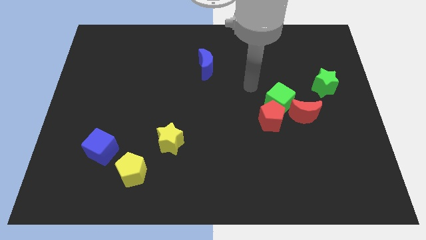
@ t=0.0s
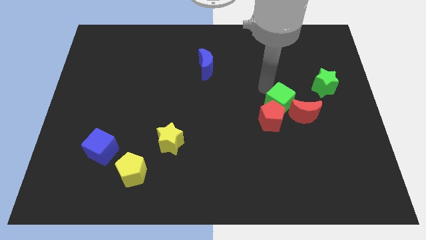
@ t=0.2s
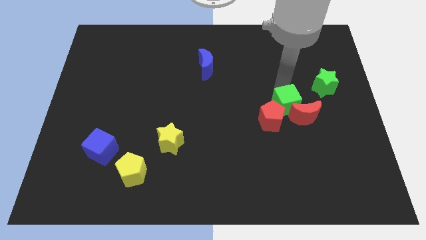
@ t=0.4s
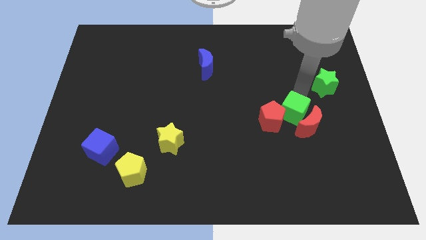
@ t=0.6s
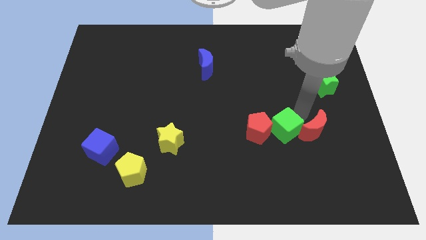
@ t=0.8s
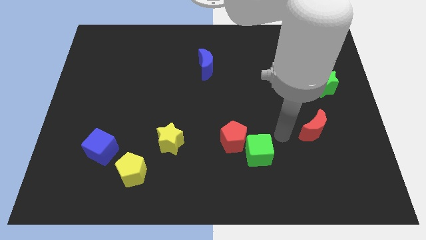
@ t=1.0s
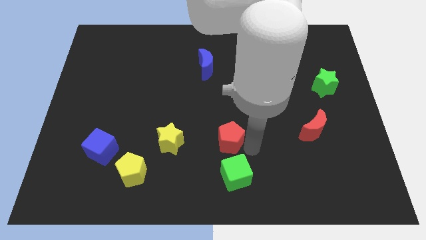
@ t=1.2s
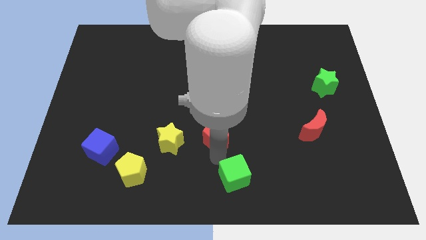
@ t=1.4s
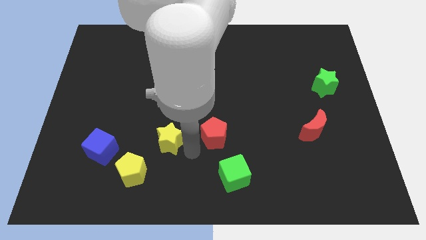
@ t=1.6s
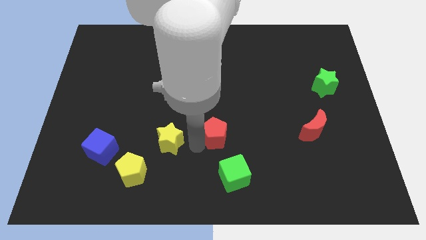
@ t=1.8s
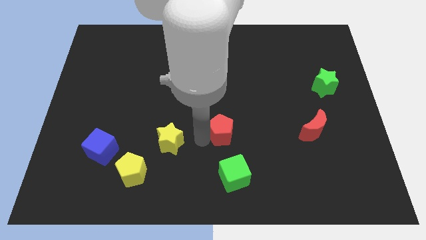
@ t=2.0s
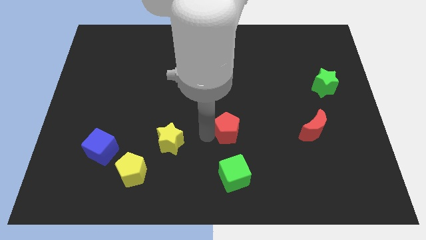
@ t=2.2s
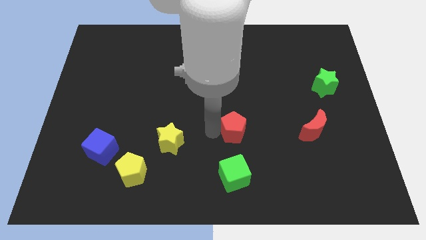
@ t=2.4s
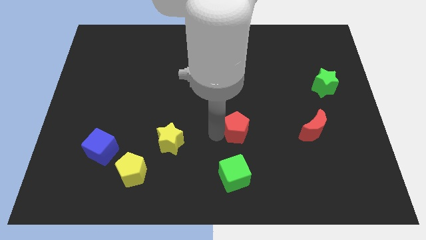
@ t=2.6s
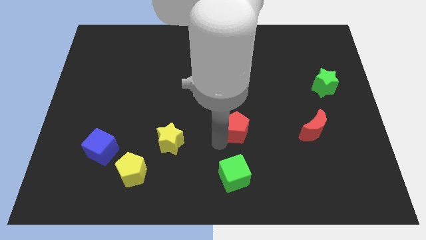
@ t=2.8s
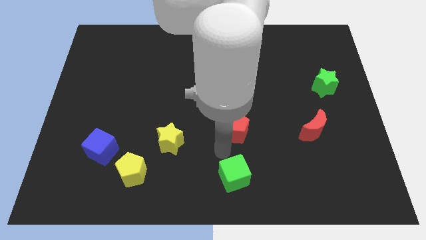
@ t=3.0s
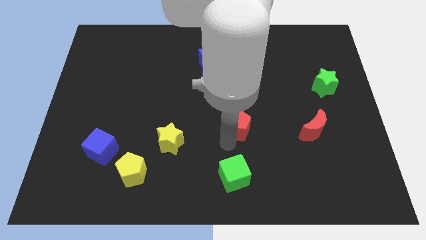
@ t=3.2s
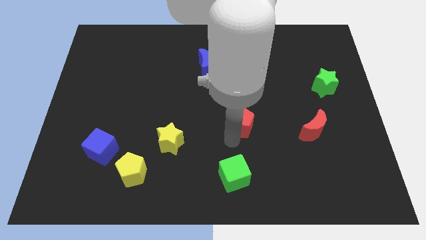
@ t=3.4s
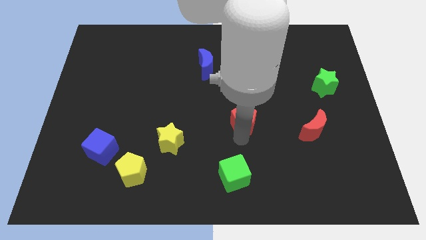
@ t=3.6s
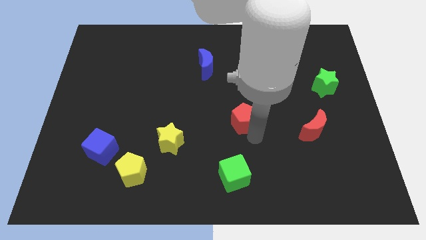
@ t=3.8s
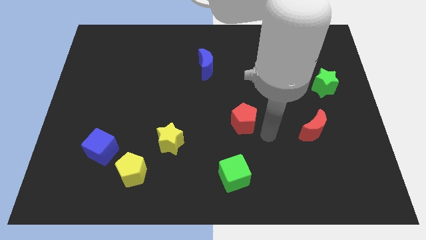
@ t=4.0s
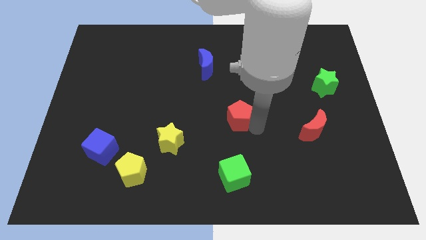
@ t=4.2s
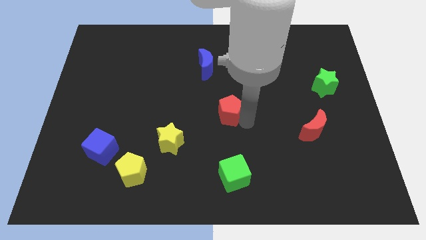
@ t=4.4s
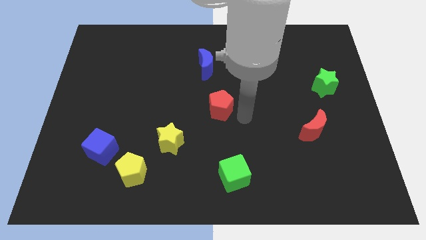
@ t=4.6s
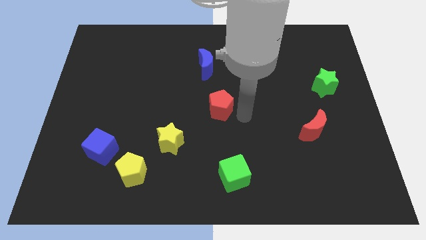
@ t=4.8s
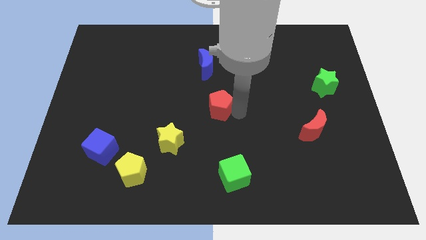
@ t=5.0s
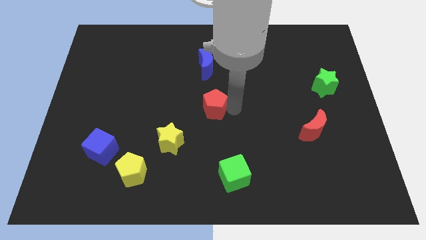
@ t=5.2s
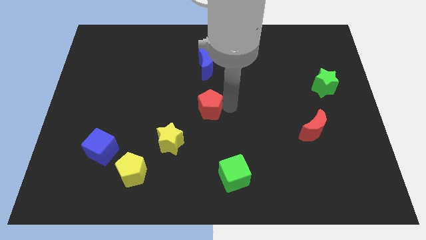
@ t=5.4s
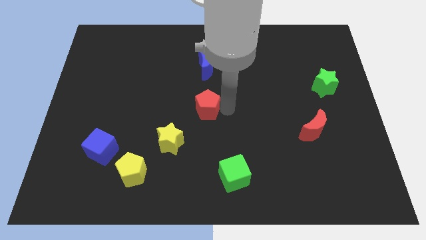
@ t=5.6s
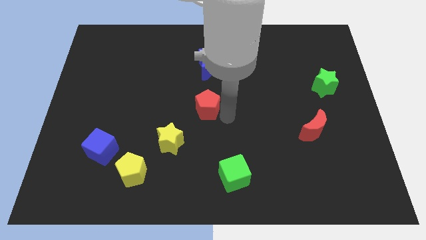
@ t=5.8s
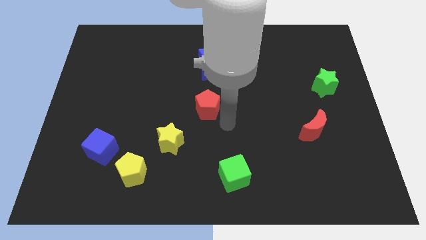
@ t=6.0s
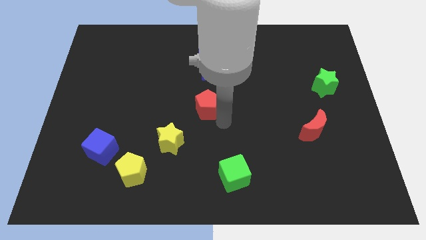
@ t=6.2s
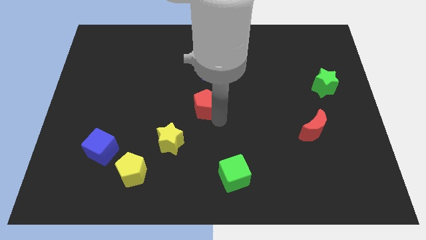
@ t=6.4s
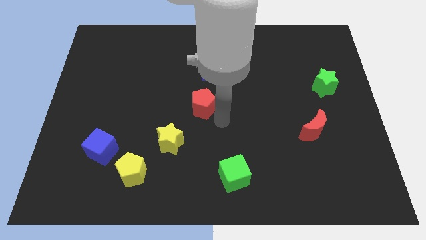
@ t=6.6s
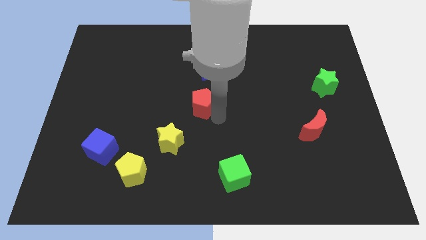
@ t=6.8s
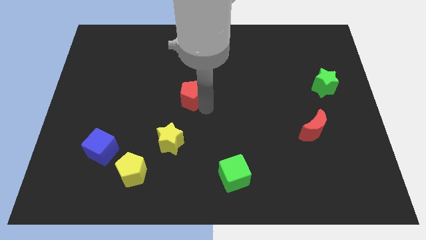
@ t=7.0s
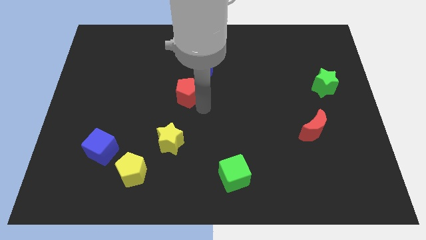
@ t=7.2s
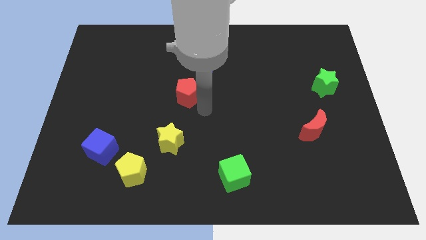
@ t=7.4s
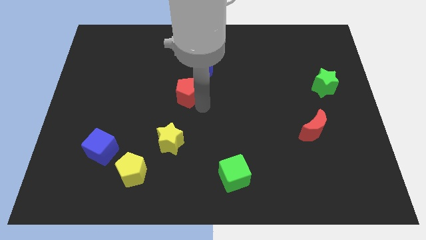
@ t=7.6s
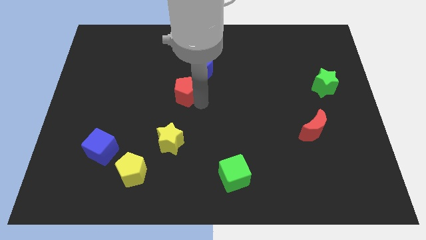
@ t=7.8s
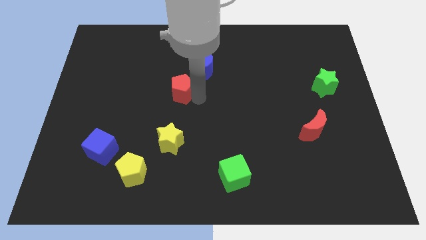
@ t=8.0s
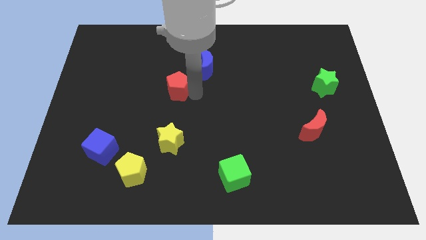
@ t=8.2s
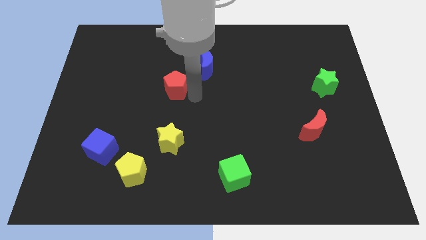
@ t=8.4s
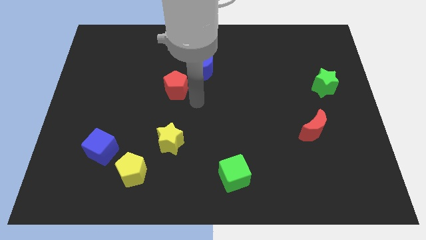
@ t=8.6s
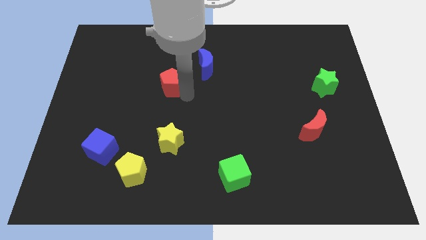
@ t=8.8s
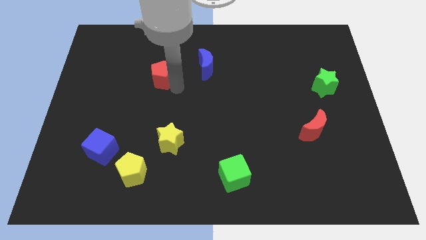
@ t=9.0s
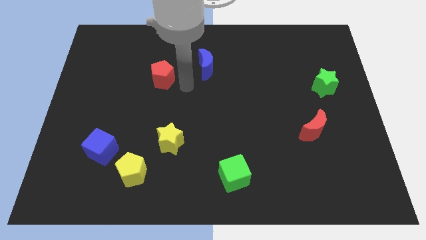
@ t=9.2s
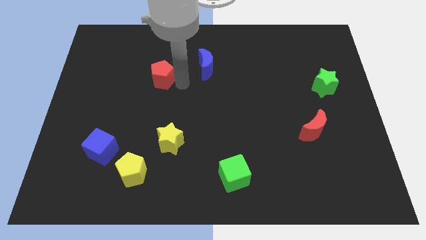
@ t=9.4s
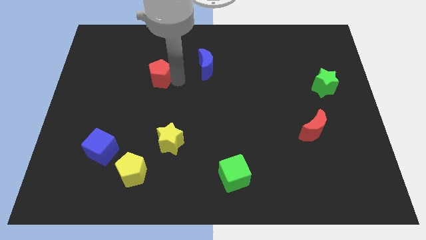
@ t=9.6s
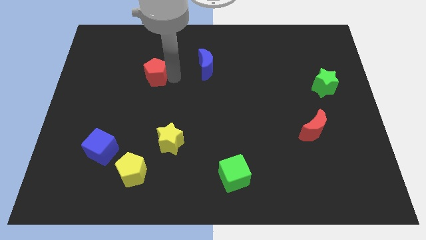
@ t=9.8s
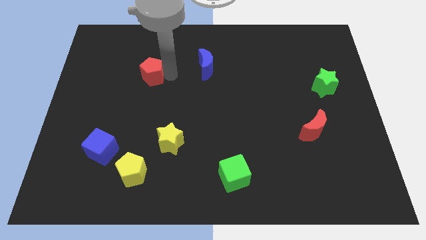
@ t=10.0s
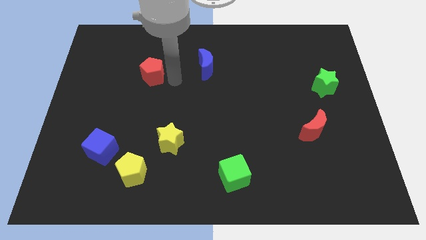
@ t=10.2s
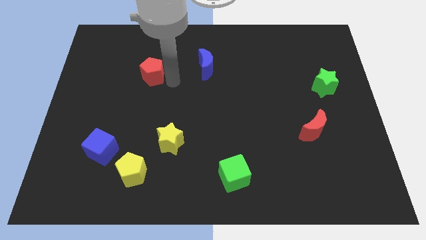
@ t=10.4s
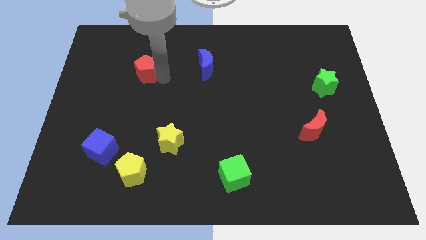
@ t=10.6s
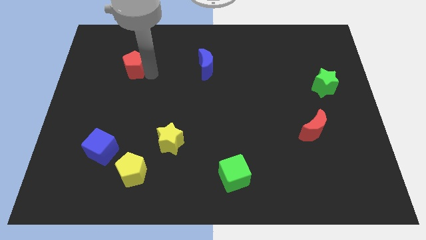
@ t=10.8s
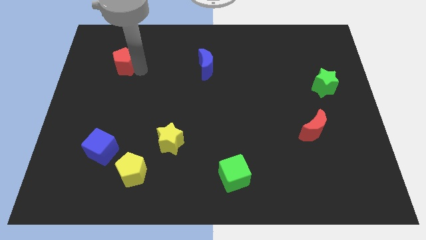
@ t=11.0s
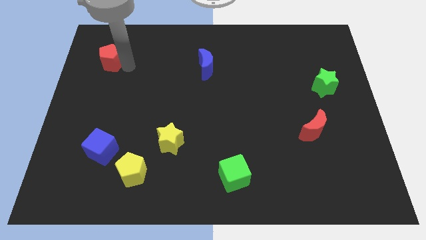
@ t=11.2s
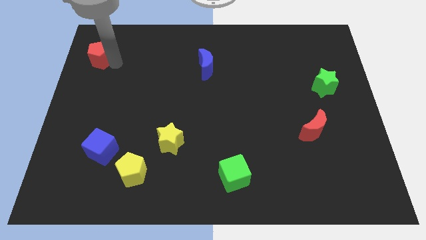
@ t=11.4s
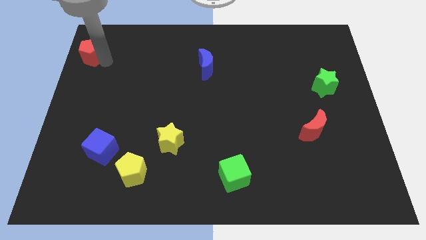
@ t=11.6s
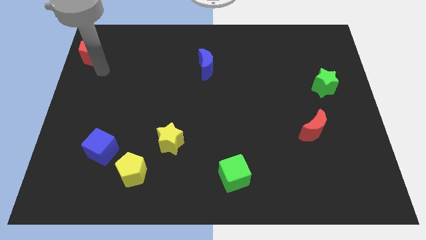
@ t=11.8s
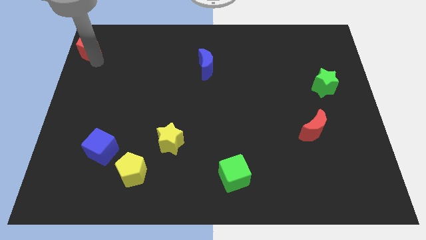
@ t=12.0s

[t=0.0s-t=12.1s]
slide the red pentagon to the top left of the board

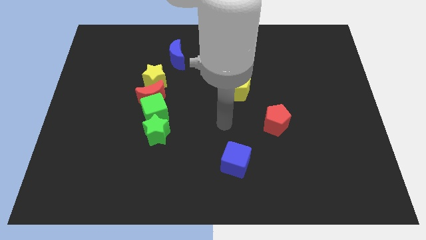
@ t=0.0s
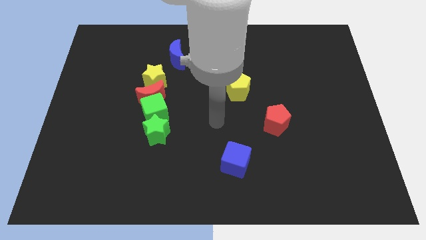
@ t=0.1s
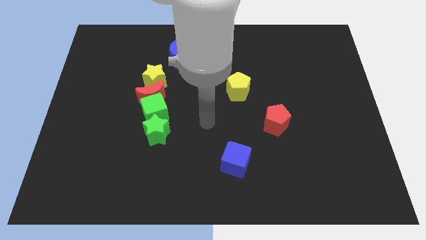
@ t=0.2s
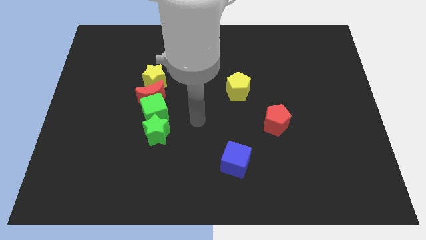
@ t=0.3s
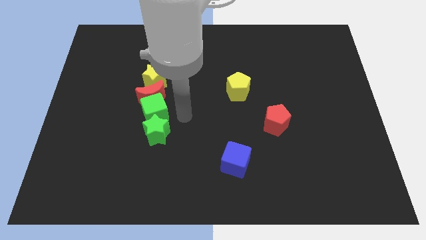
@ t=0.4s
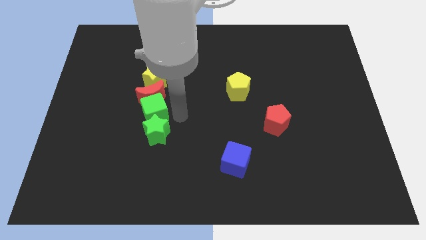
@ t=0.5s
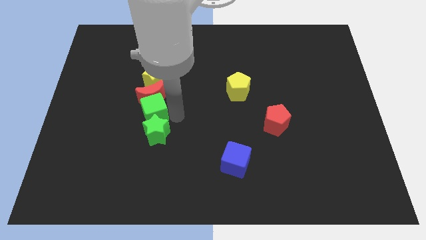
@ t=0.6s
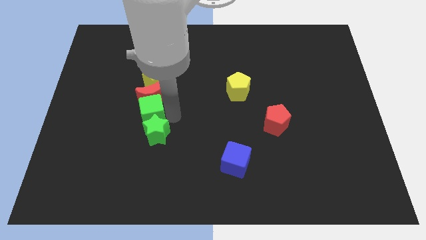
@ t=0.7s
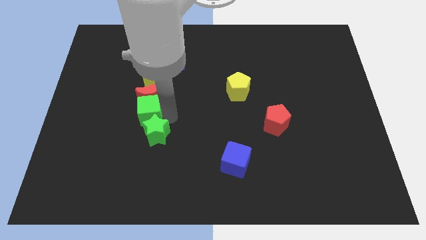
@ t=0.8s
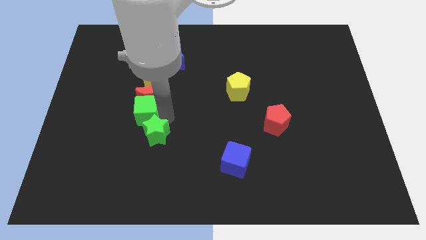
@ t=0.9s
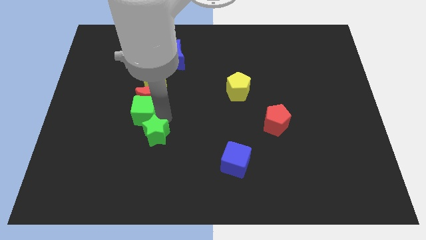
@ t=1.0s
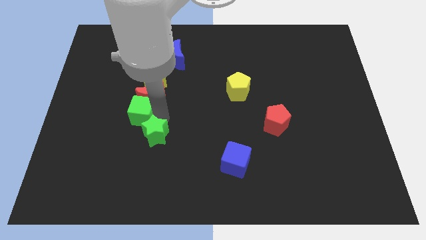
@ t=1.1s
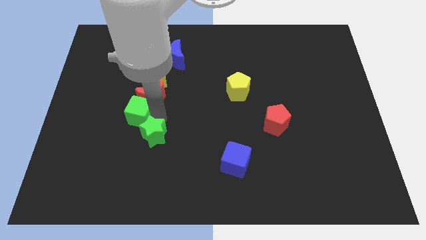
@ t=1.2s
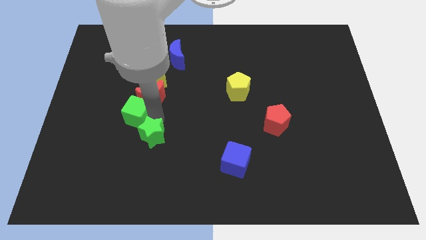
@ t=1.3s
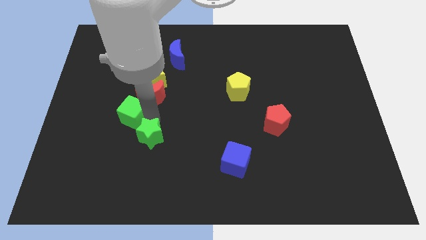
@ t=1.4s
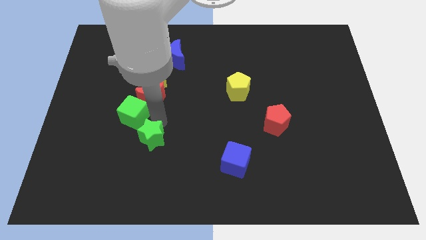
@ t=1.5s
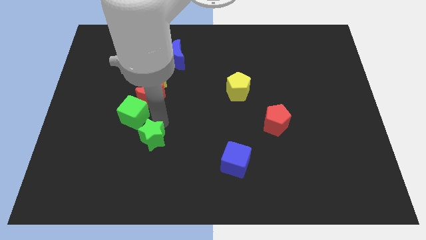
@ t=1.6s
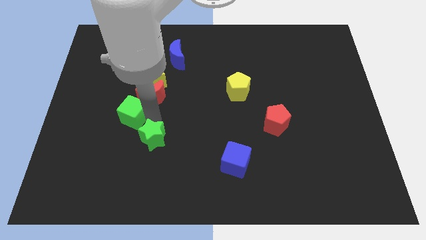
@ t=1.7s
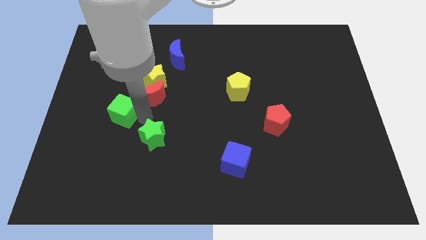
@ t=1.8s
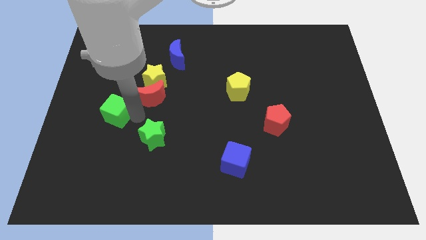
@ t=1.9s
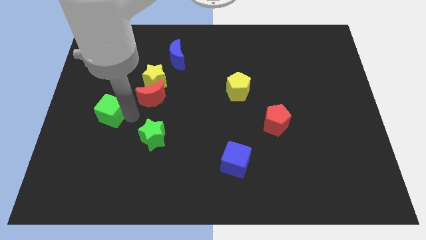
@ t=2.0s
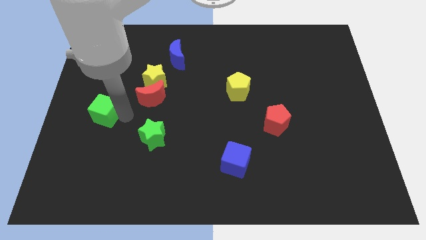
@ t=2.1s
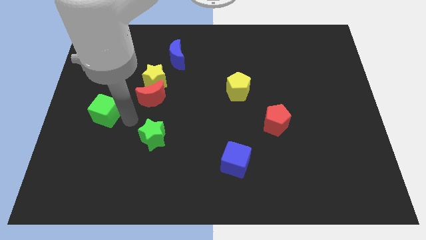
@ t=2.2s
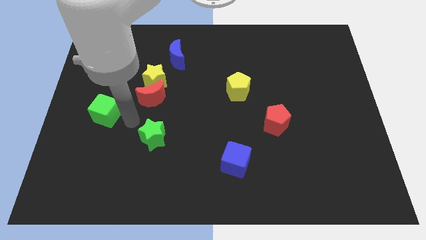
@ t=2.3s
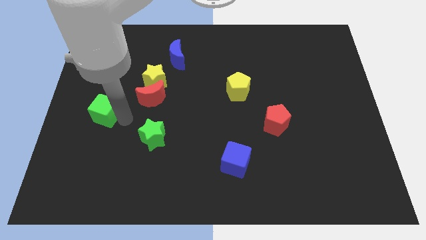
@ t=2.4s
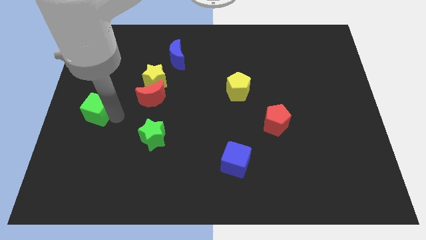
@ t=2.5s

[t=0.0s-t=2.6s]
slide the green cube to the left side of the board

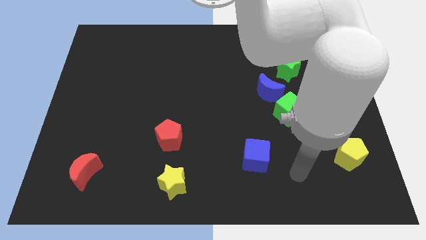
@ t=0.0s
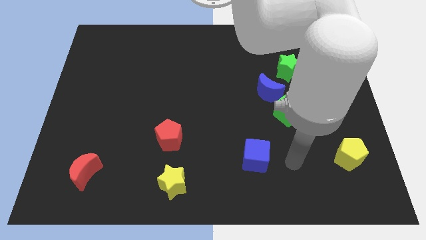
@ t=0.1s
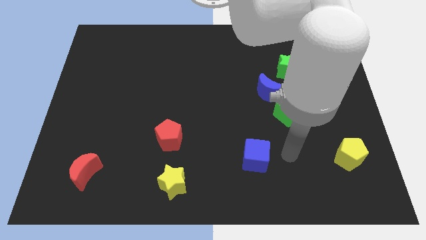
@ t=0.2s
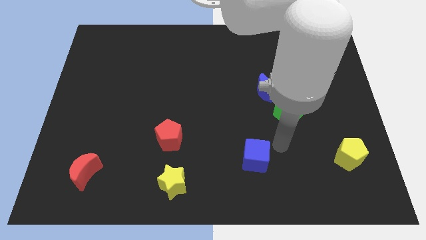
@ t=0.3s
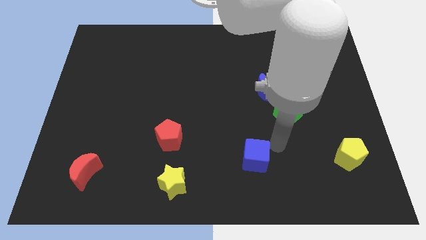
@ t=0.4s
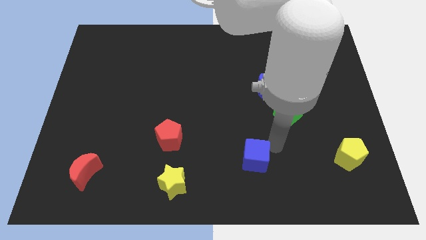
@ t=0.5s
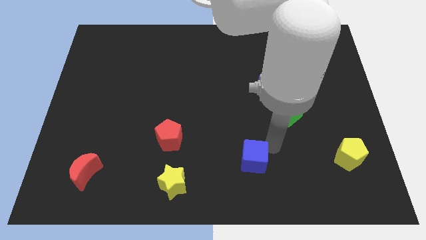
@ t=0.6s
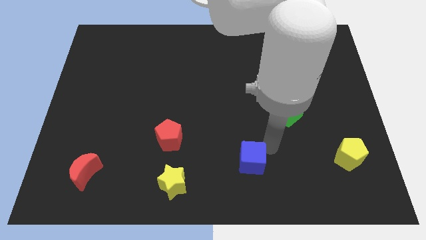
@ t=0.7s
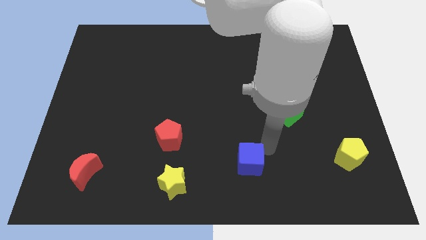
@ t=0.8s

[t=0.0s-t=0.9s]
put the blue cube to the bottom side
